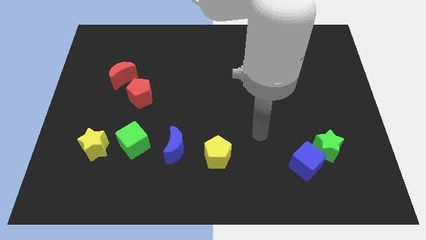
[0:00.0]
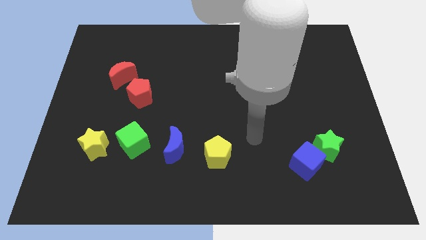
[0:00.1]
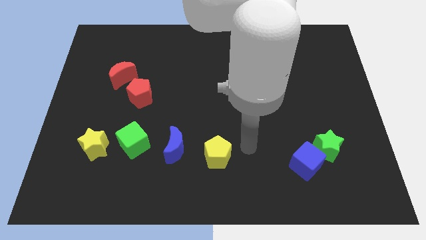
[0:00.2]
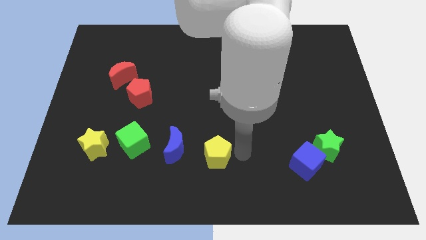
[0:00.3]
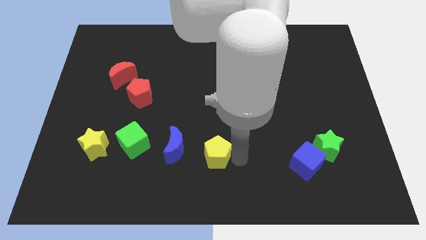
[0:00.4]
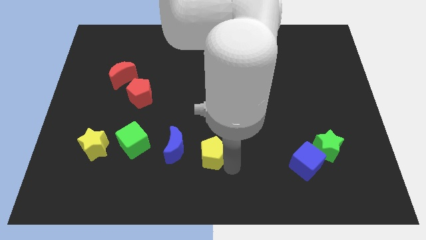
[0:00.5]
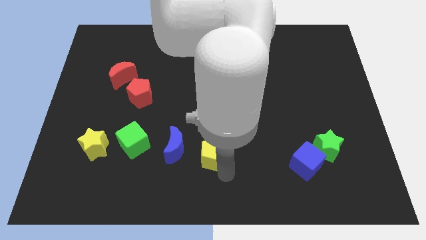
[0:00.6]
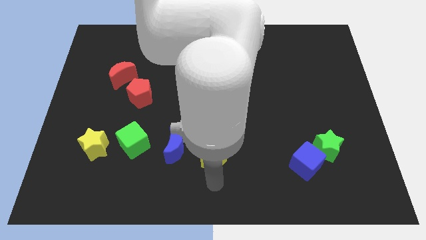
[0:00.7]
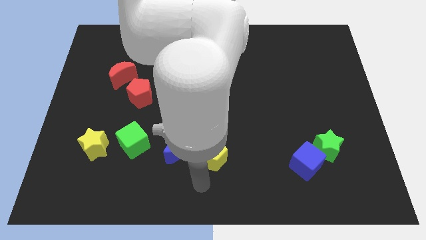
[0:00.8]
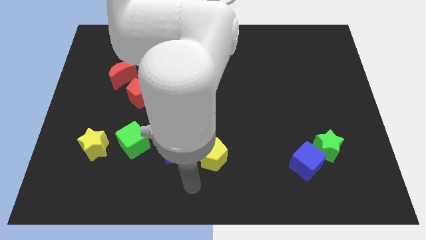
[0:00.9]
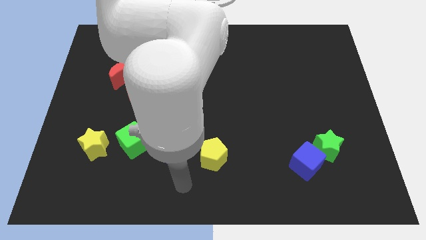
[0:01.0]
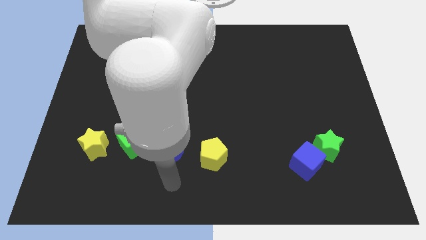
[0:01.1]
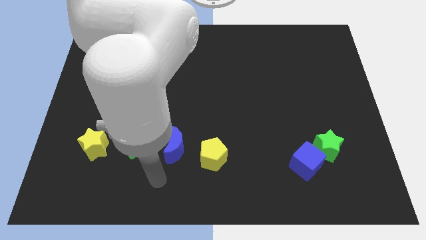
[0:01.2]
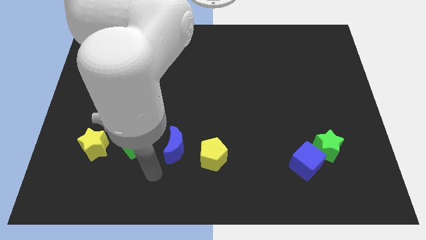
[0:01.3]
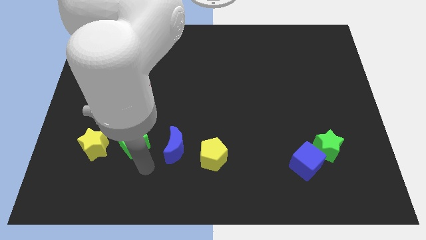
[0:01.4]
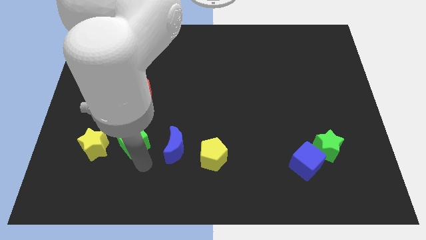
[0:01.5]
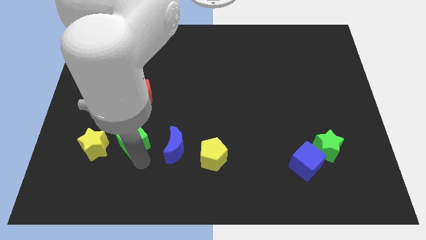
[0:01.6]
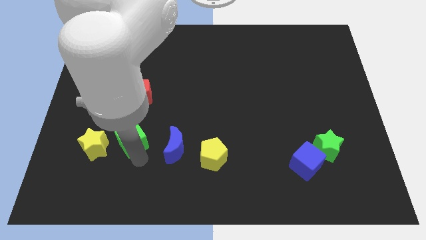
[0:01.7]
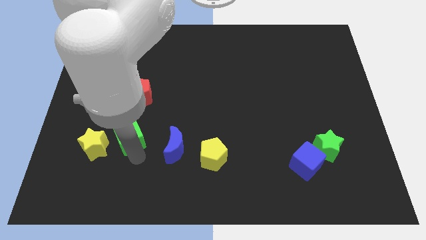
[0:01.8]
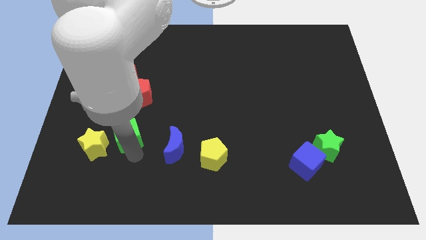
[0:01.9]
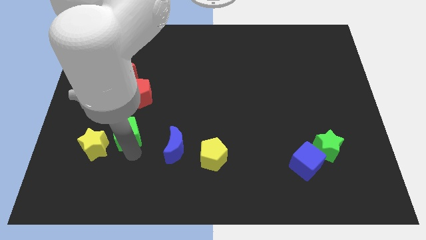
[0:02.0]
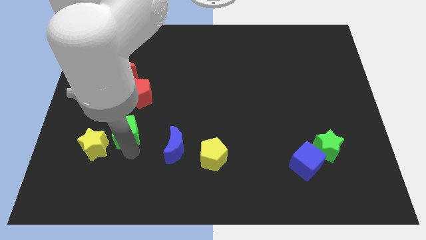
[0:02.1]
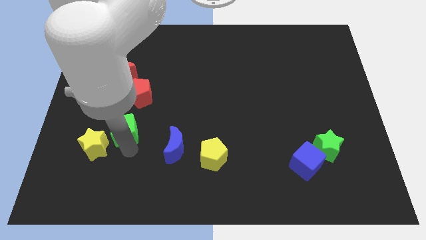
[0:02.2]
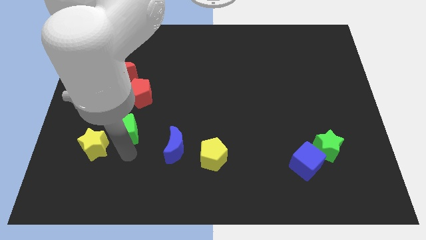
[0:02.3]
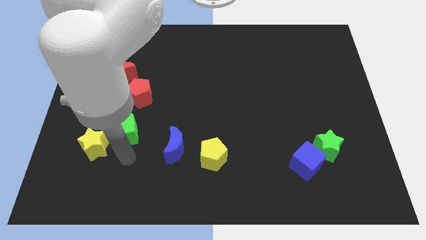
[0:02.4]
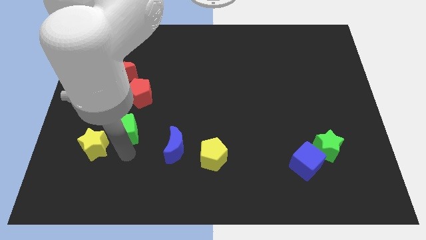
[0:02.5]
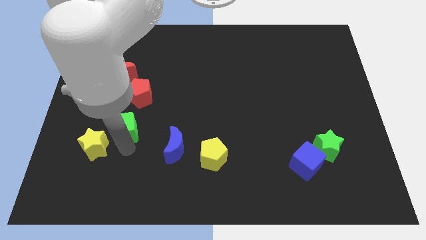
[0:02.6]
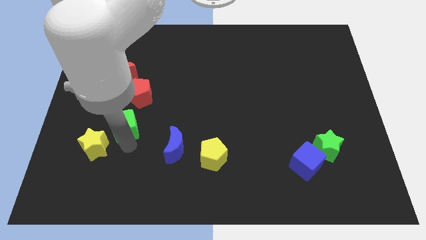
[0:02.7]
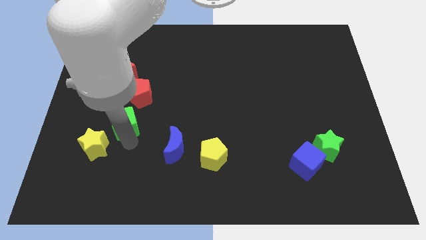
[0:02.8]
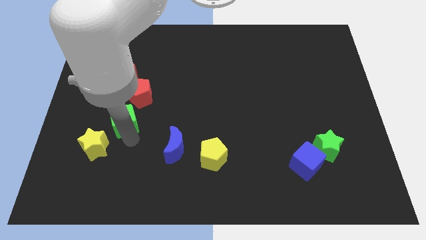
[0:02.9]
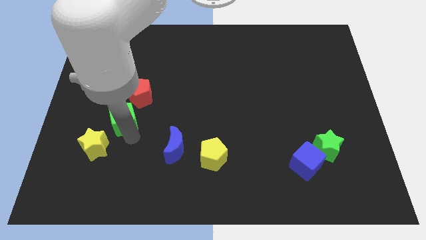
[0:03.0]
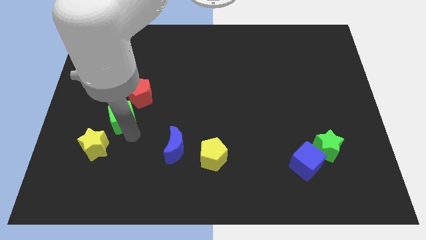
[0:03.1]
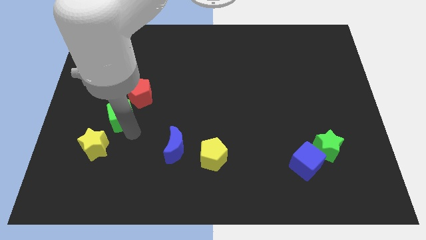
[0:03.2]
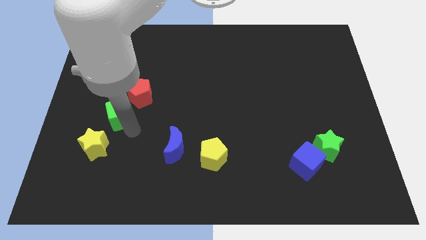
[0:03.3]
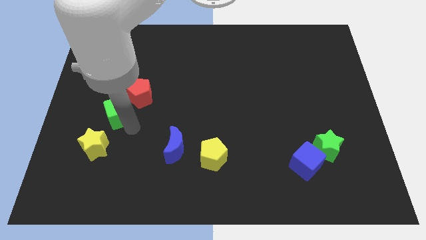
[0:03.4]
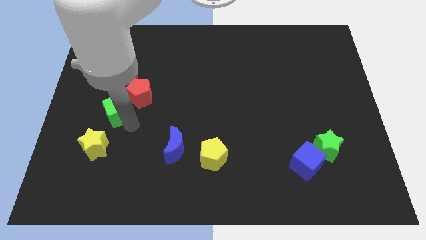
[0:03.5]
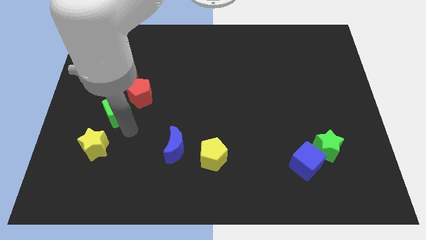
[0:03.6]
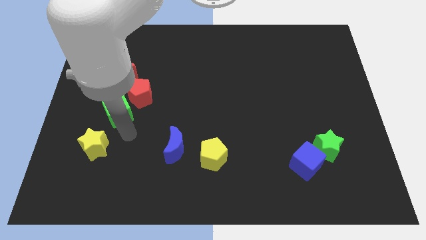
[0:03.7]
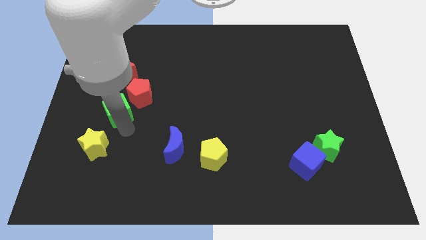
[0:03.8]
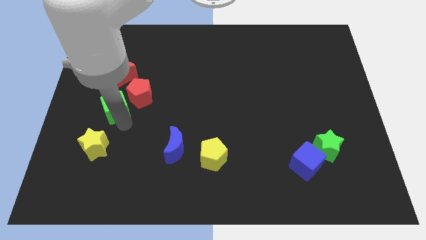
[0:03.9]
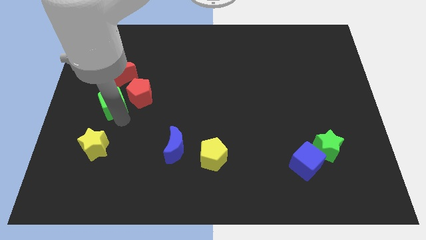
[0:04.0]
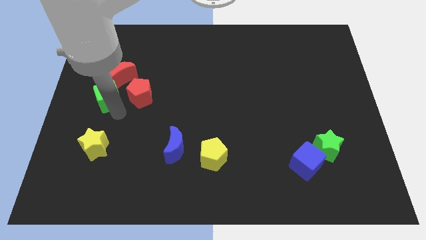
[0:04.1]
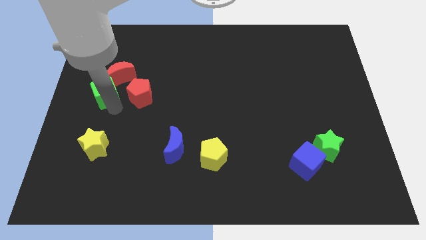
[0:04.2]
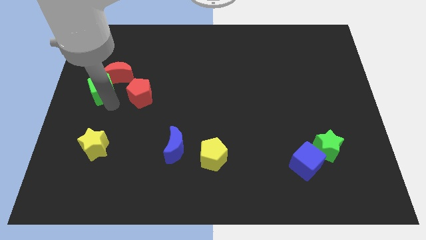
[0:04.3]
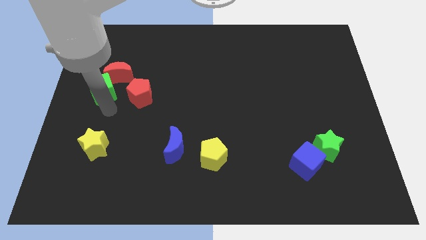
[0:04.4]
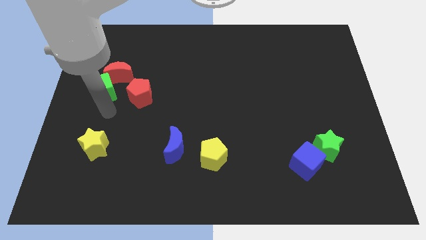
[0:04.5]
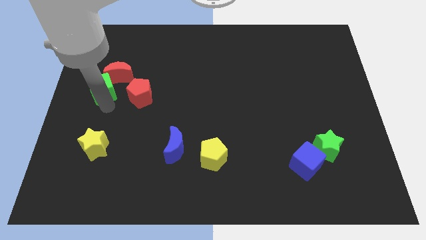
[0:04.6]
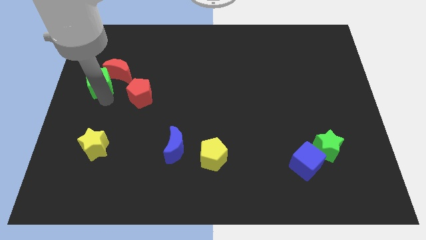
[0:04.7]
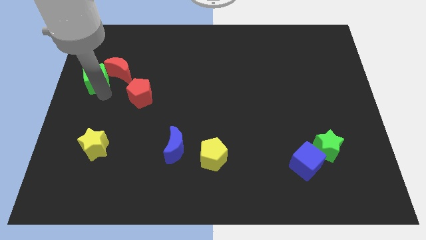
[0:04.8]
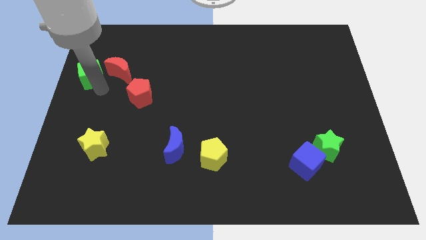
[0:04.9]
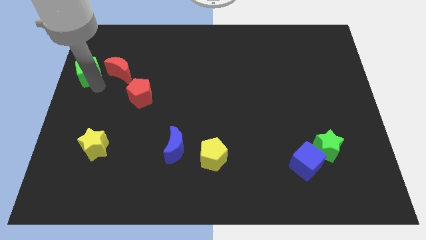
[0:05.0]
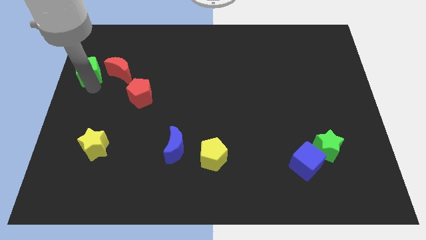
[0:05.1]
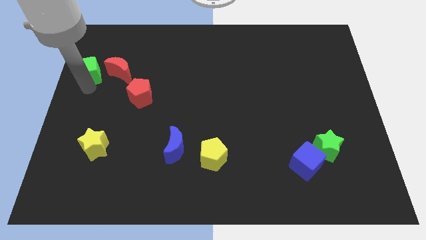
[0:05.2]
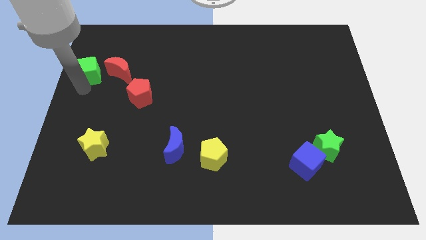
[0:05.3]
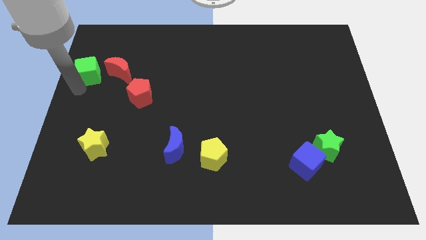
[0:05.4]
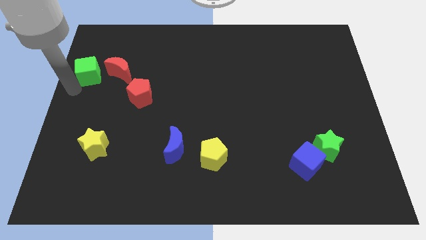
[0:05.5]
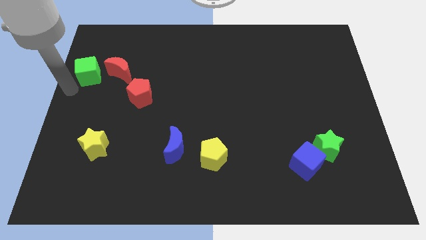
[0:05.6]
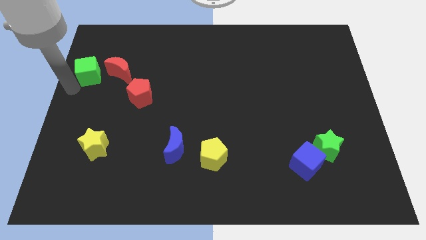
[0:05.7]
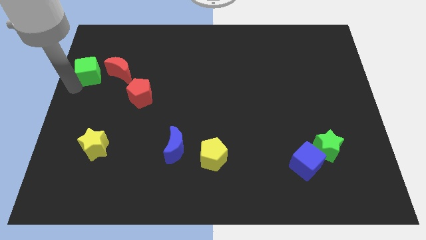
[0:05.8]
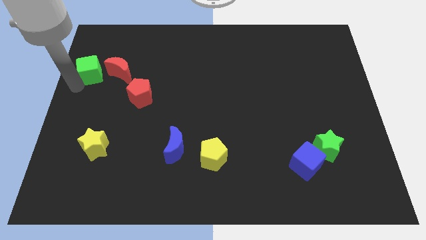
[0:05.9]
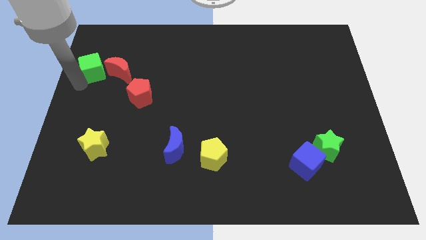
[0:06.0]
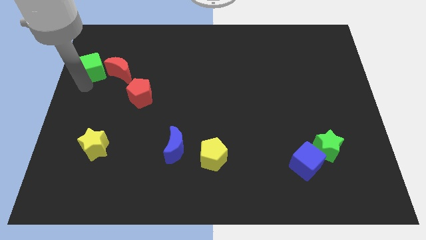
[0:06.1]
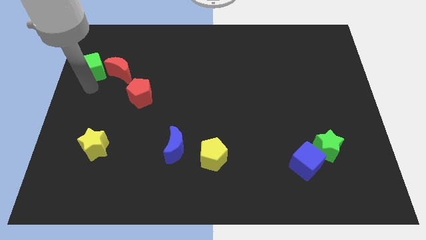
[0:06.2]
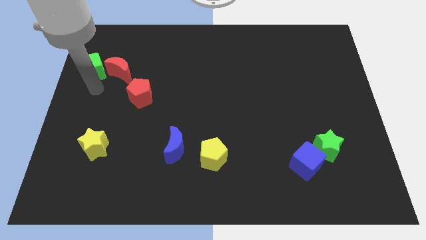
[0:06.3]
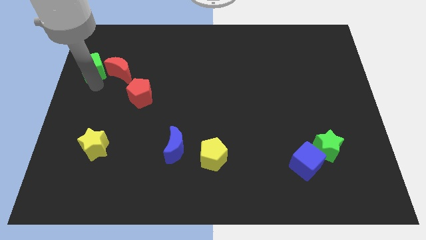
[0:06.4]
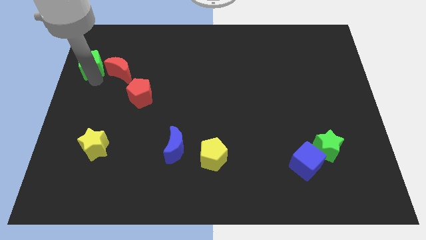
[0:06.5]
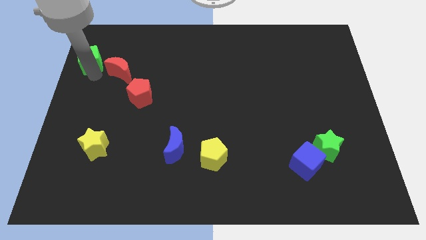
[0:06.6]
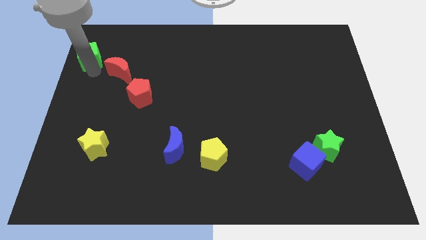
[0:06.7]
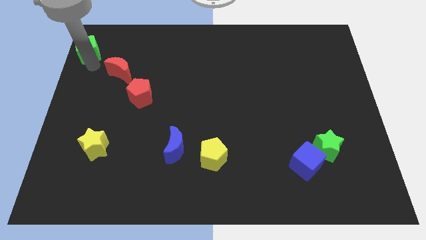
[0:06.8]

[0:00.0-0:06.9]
push the green cube to the upper left corner
